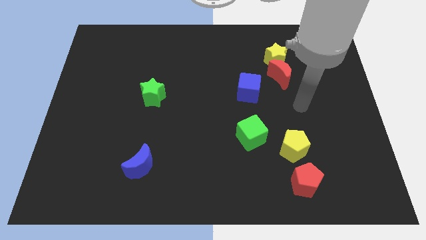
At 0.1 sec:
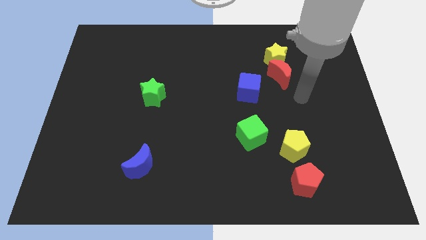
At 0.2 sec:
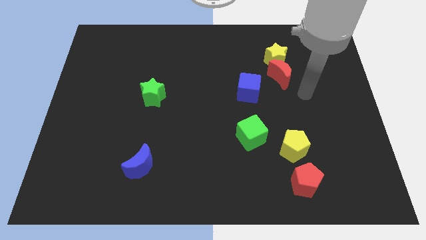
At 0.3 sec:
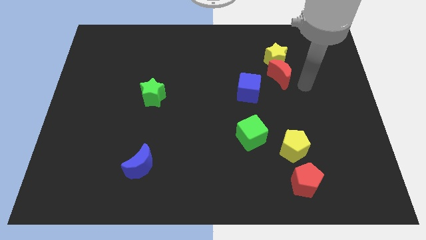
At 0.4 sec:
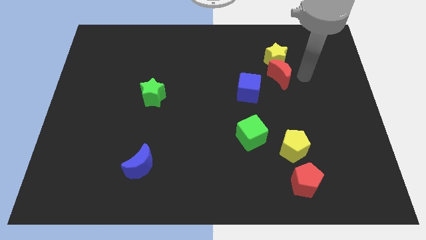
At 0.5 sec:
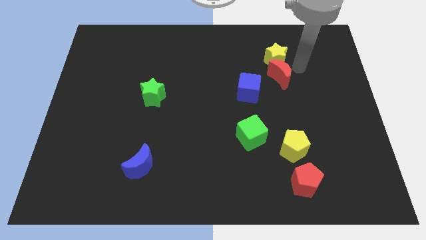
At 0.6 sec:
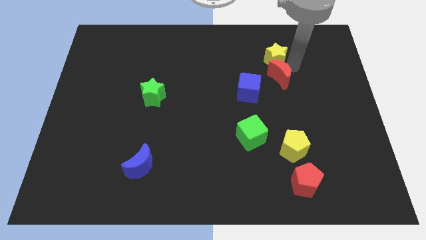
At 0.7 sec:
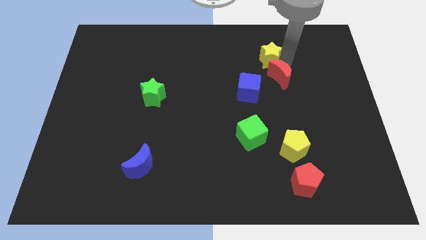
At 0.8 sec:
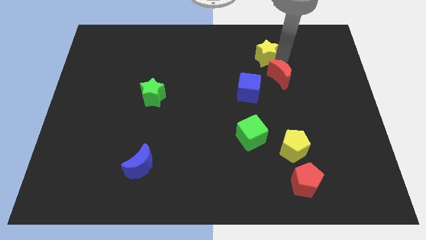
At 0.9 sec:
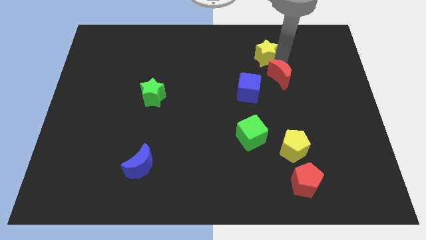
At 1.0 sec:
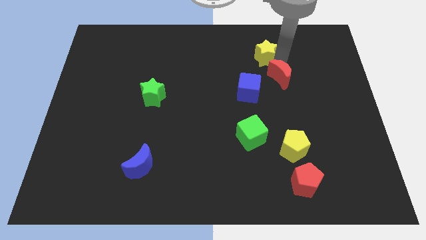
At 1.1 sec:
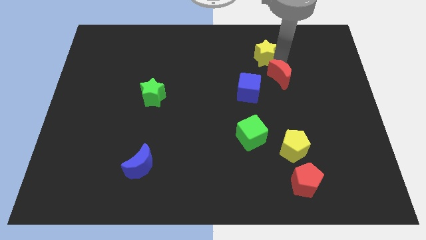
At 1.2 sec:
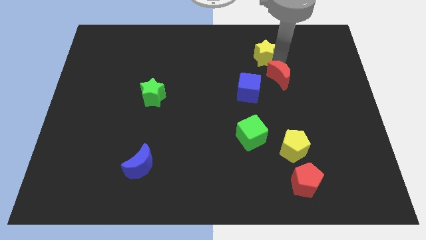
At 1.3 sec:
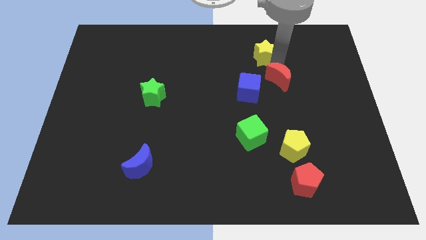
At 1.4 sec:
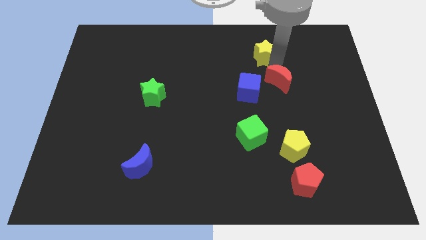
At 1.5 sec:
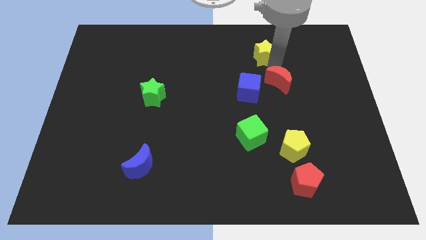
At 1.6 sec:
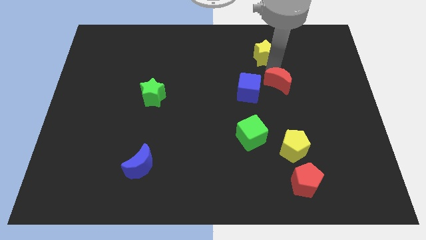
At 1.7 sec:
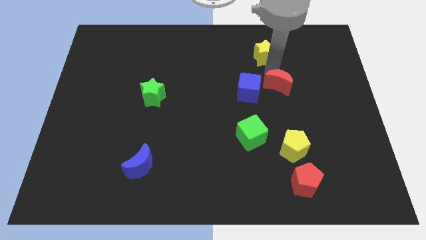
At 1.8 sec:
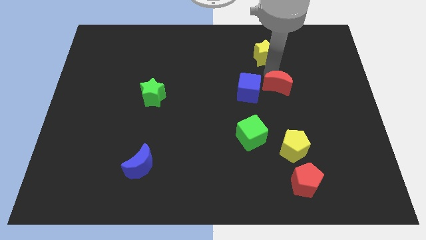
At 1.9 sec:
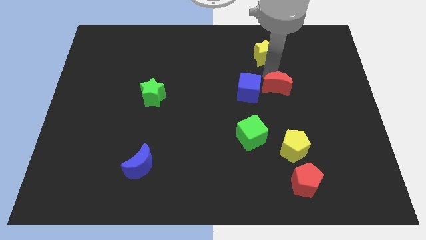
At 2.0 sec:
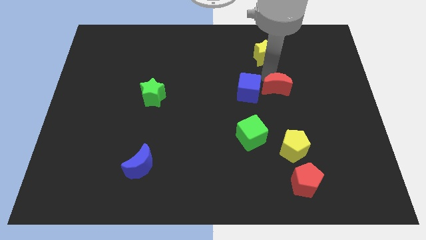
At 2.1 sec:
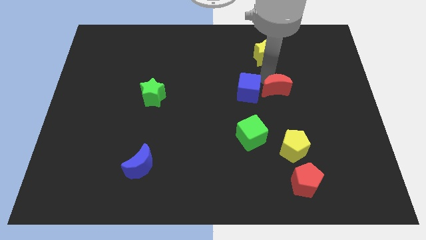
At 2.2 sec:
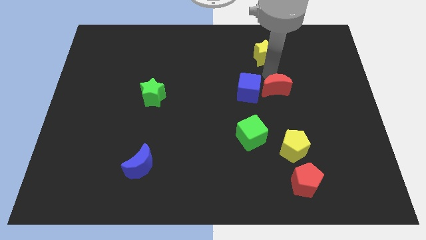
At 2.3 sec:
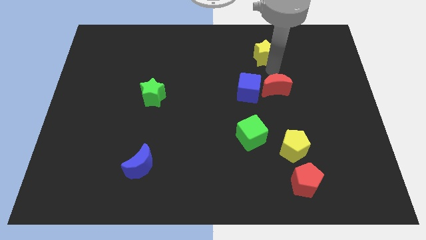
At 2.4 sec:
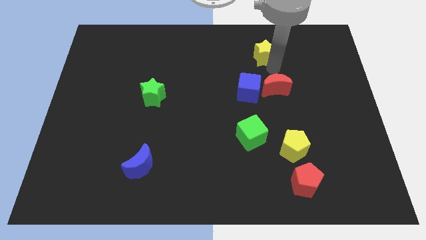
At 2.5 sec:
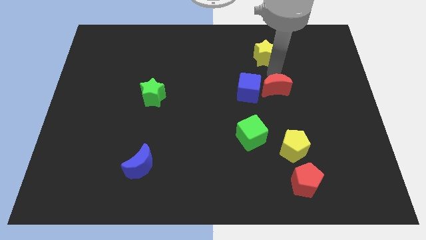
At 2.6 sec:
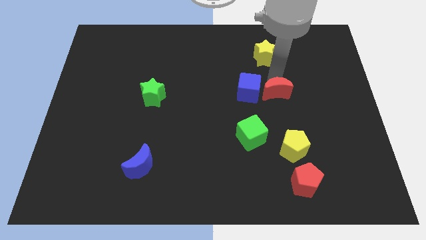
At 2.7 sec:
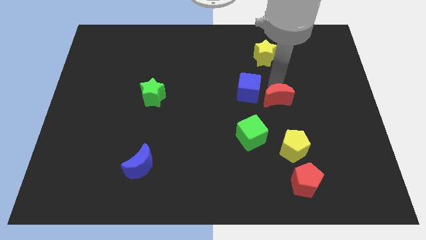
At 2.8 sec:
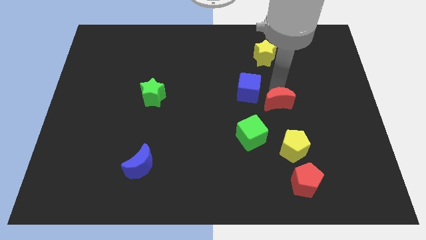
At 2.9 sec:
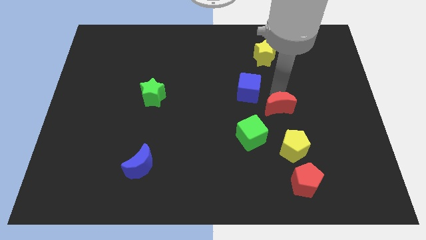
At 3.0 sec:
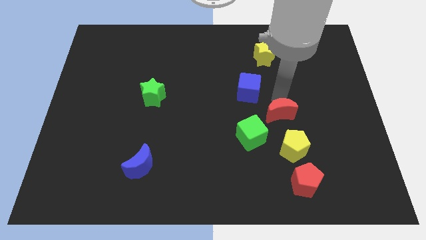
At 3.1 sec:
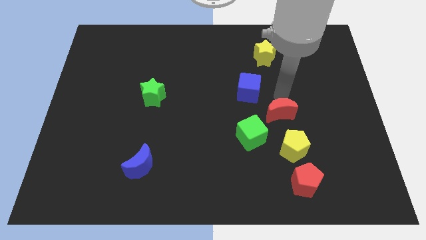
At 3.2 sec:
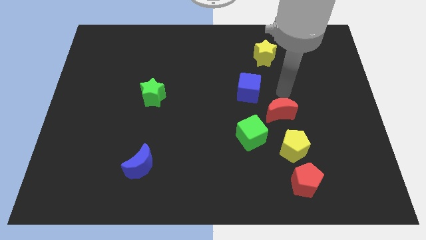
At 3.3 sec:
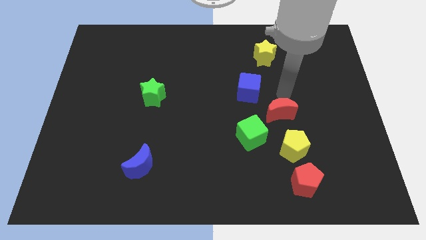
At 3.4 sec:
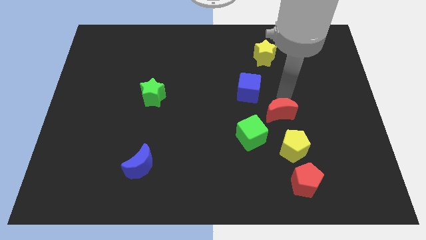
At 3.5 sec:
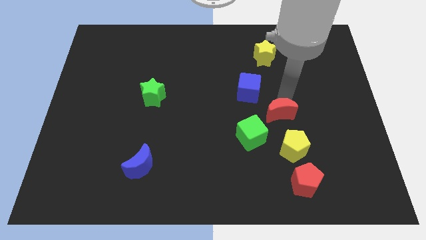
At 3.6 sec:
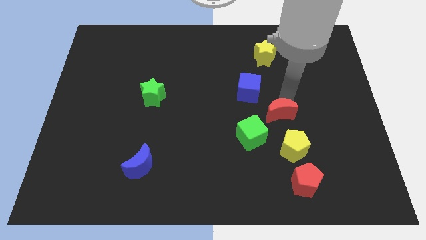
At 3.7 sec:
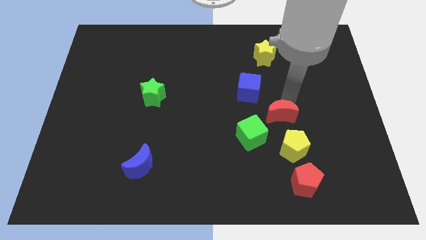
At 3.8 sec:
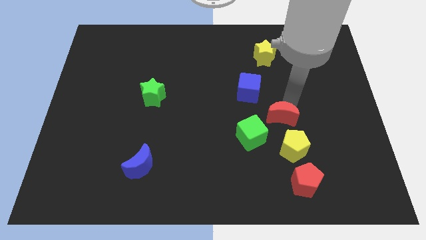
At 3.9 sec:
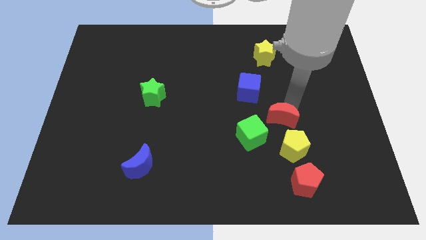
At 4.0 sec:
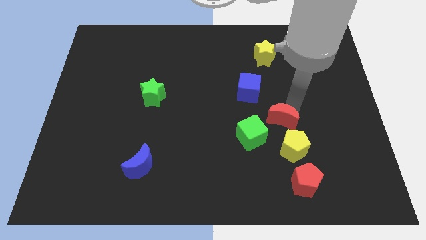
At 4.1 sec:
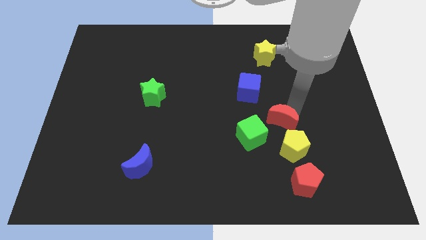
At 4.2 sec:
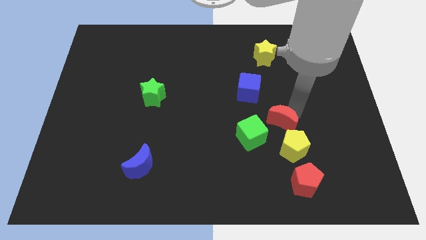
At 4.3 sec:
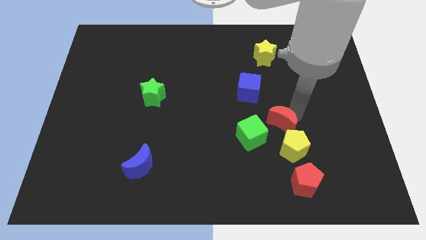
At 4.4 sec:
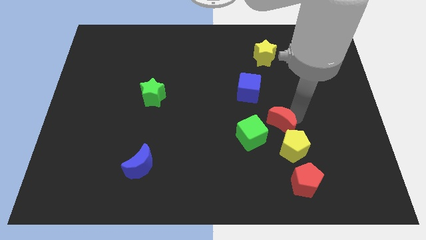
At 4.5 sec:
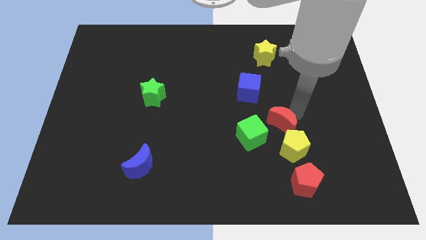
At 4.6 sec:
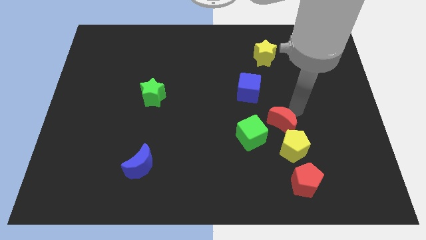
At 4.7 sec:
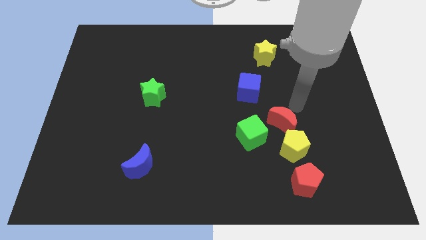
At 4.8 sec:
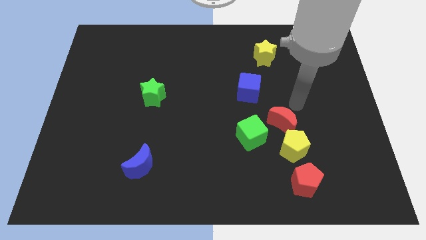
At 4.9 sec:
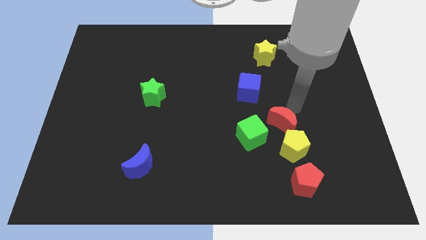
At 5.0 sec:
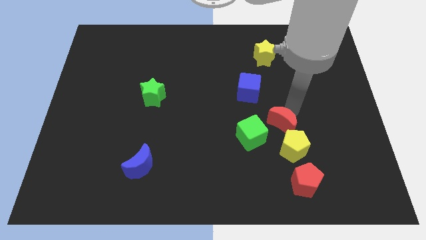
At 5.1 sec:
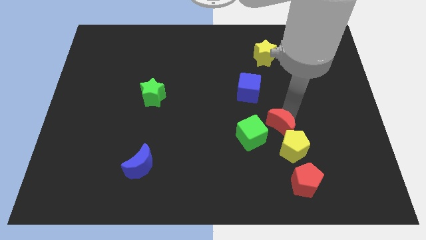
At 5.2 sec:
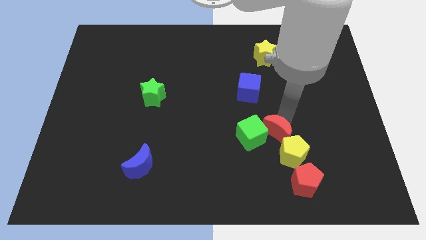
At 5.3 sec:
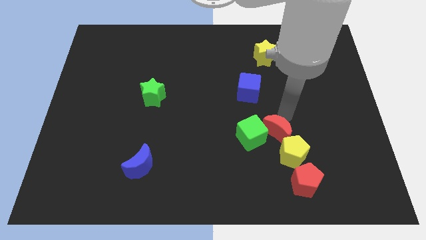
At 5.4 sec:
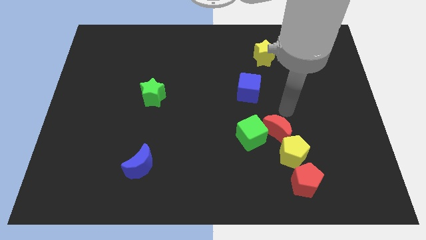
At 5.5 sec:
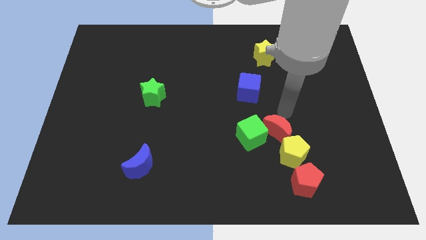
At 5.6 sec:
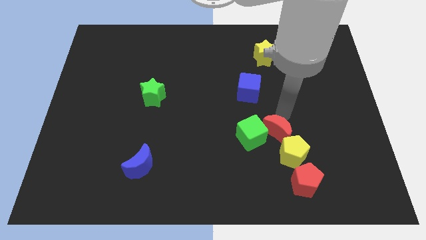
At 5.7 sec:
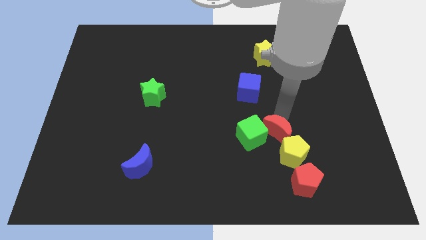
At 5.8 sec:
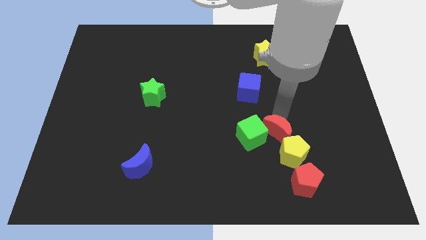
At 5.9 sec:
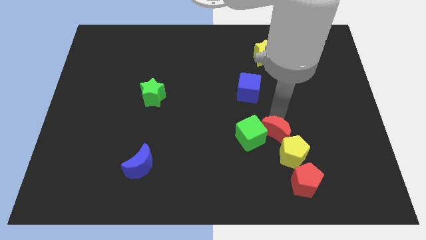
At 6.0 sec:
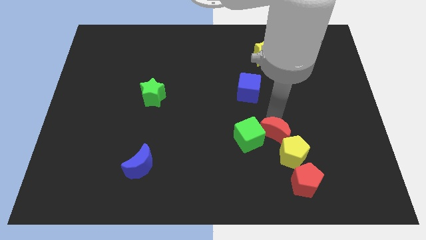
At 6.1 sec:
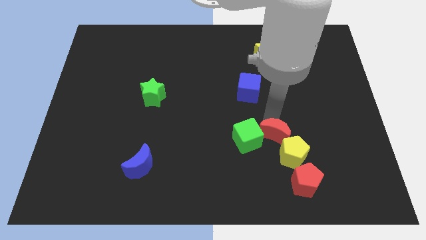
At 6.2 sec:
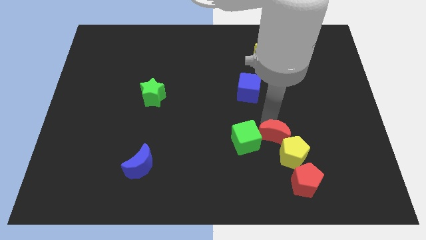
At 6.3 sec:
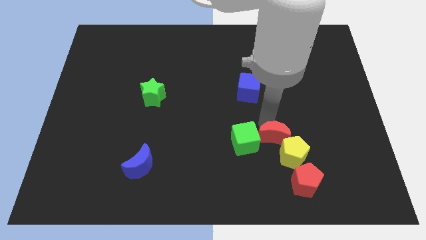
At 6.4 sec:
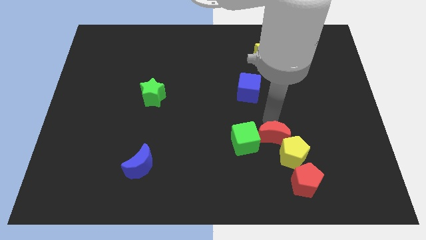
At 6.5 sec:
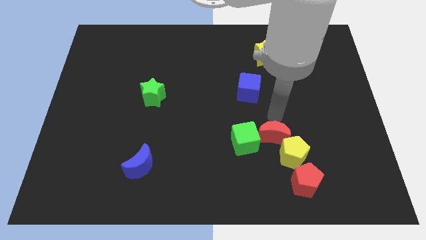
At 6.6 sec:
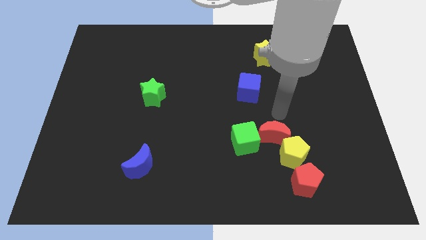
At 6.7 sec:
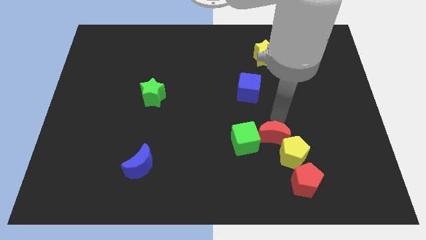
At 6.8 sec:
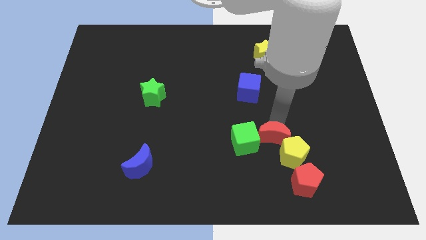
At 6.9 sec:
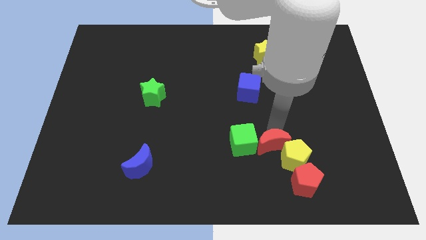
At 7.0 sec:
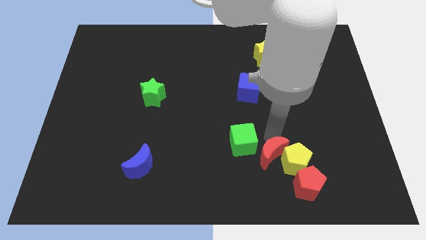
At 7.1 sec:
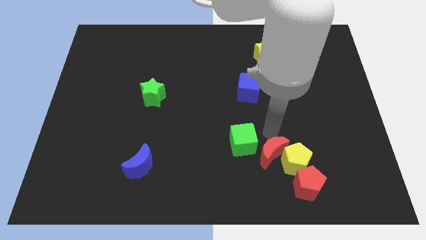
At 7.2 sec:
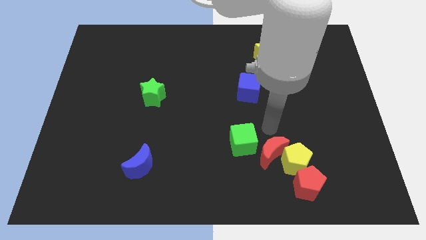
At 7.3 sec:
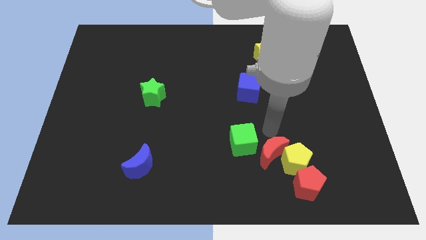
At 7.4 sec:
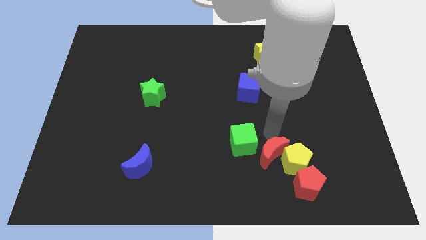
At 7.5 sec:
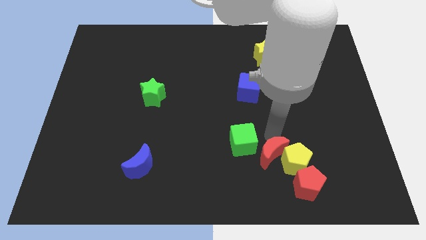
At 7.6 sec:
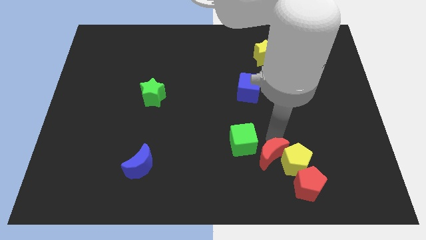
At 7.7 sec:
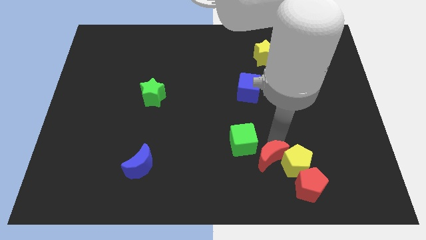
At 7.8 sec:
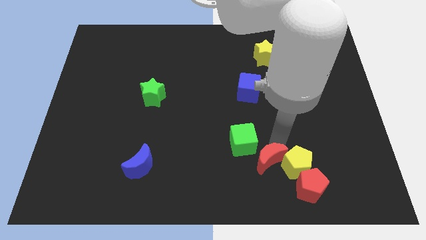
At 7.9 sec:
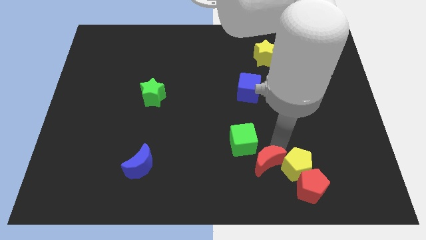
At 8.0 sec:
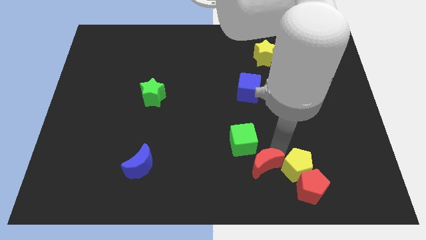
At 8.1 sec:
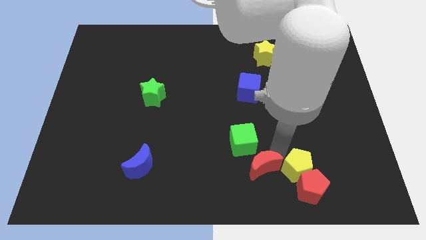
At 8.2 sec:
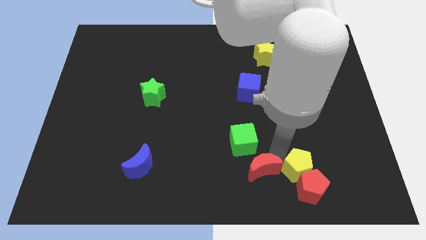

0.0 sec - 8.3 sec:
slide the red moon to the bottom left side of the yellow pentagon
